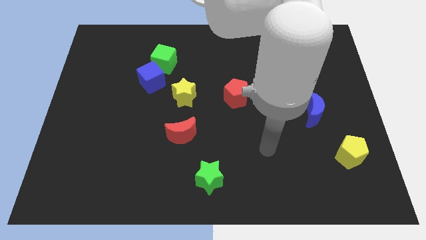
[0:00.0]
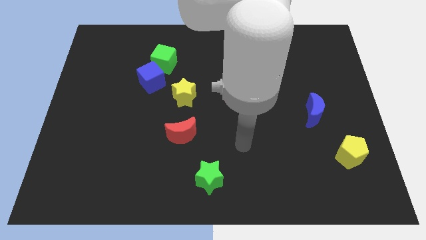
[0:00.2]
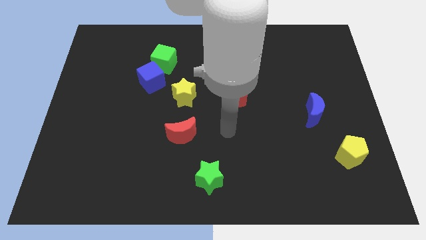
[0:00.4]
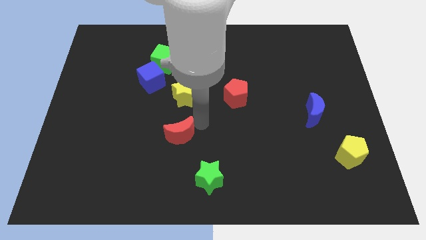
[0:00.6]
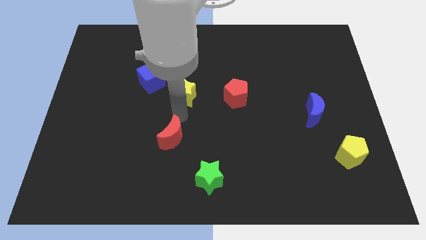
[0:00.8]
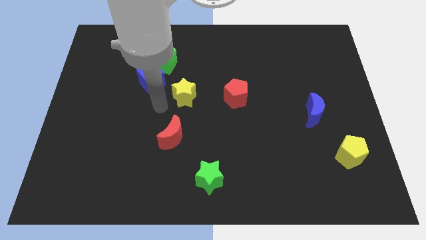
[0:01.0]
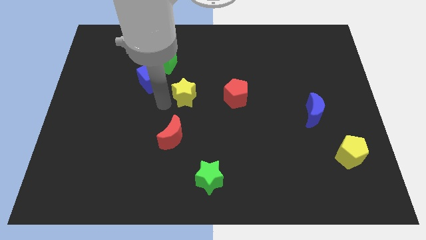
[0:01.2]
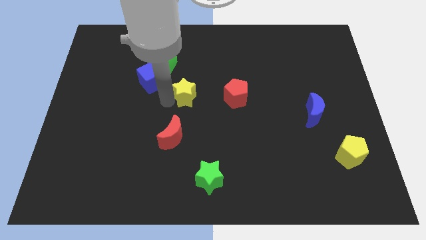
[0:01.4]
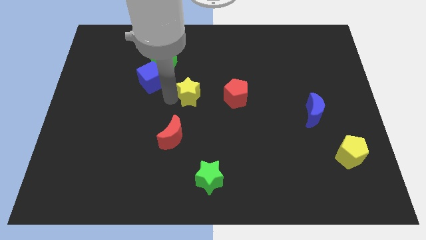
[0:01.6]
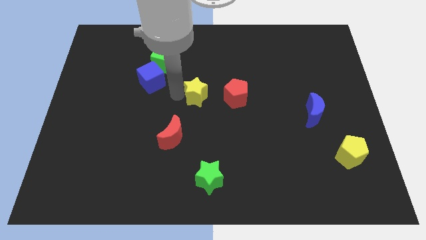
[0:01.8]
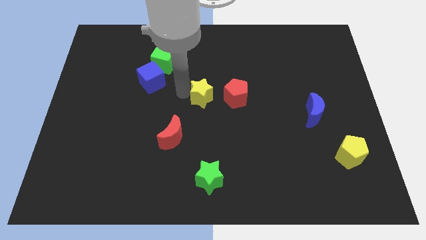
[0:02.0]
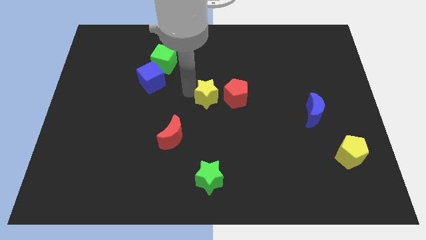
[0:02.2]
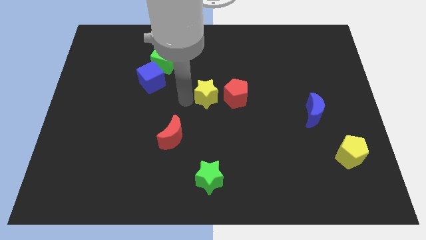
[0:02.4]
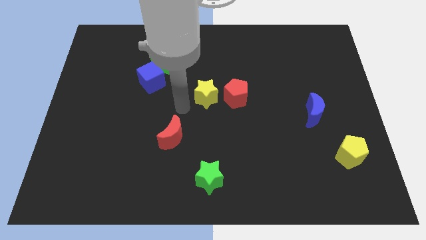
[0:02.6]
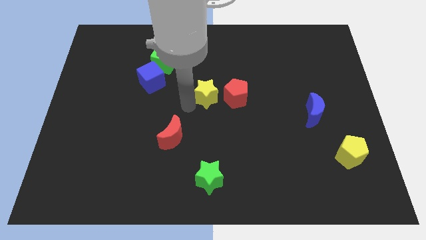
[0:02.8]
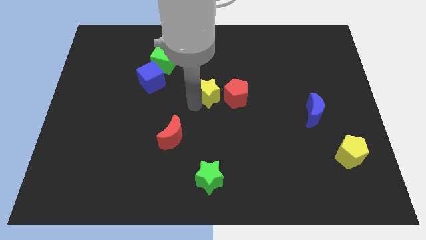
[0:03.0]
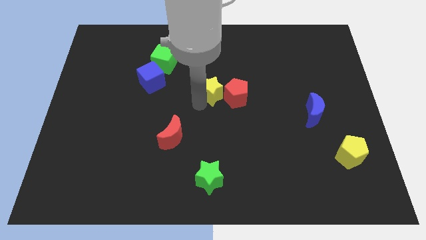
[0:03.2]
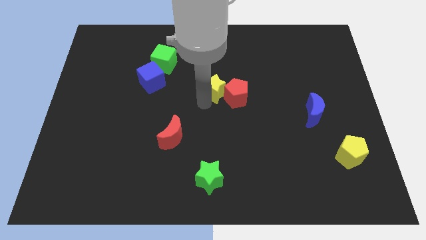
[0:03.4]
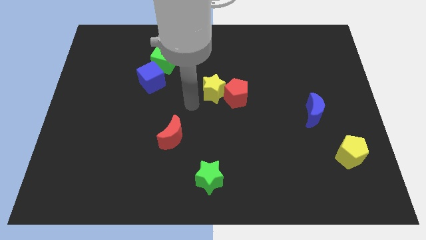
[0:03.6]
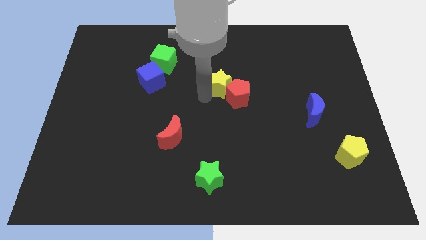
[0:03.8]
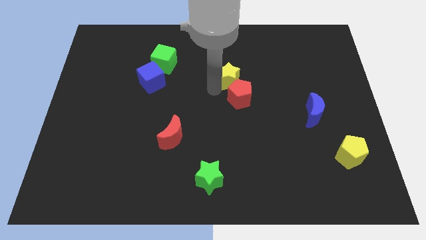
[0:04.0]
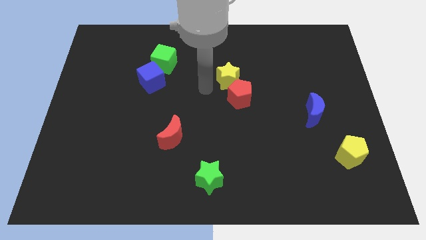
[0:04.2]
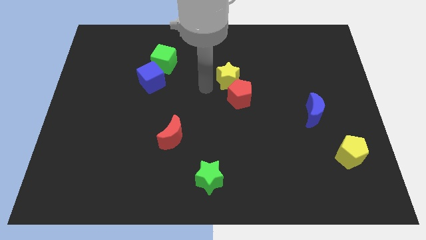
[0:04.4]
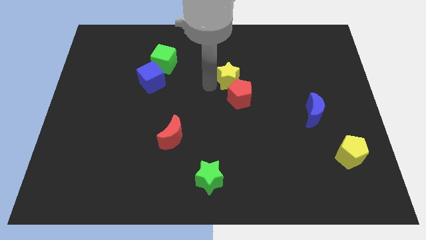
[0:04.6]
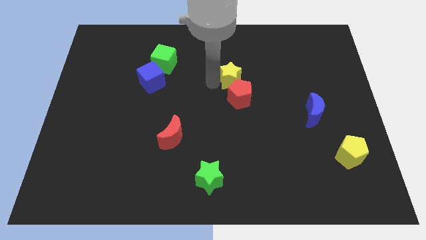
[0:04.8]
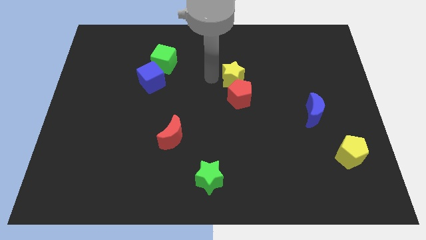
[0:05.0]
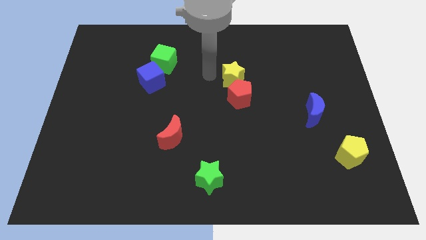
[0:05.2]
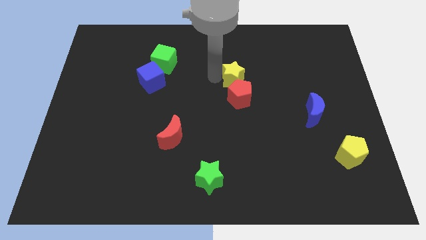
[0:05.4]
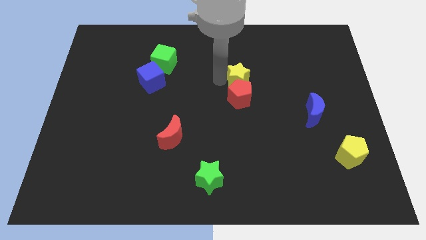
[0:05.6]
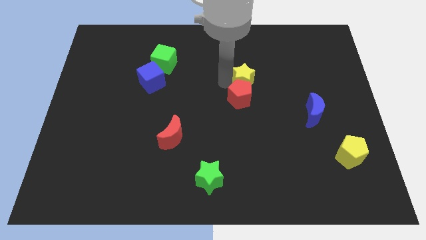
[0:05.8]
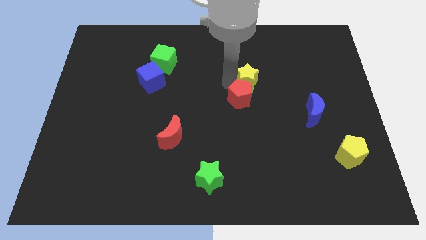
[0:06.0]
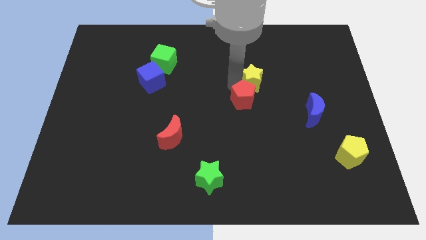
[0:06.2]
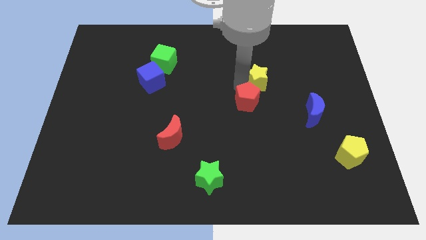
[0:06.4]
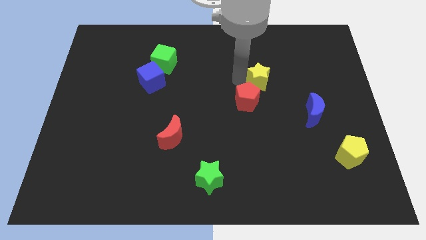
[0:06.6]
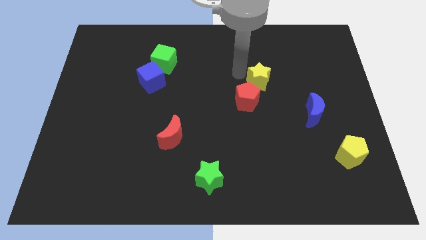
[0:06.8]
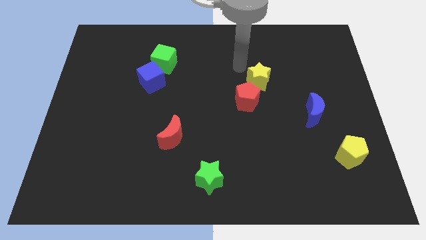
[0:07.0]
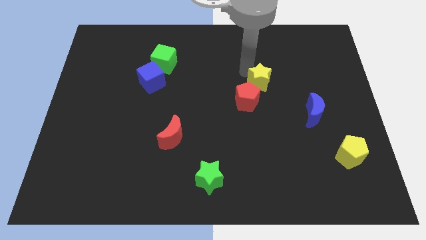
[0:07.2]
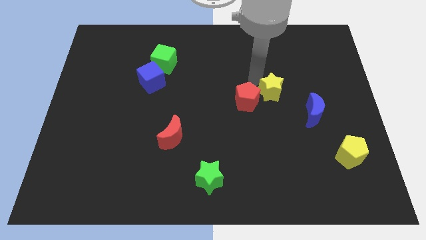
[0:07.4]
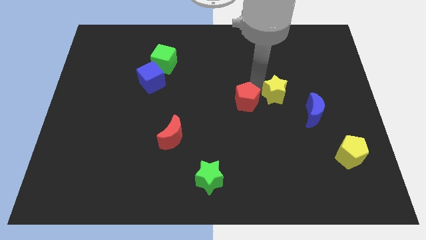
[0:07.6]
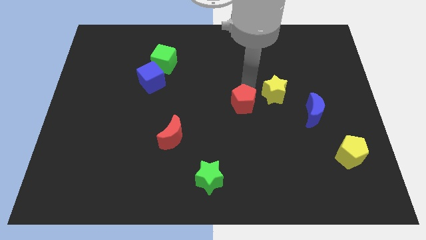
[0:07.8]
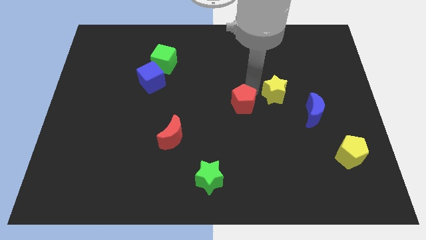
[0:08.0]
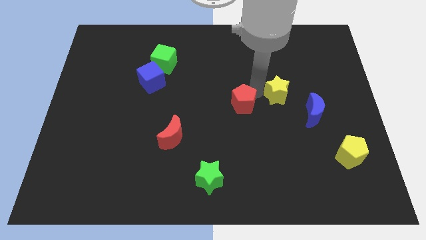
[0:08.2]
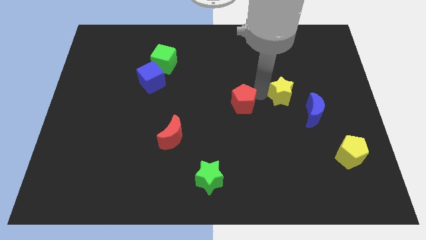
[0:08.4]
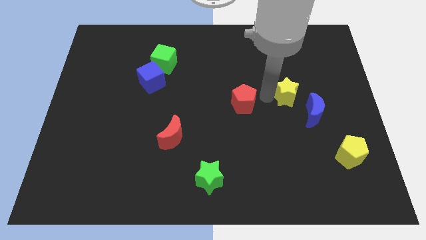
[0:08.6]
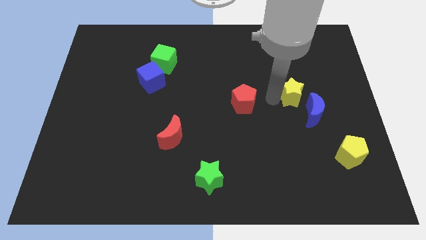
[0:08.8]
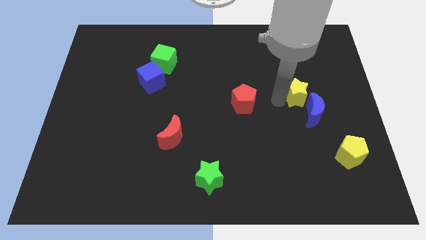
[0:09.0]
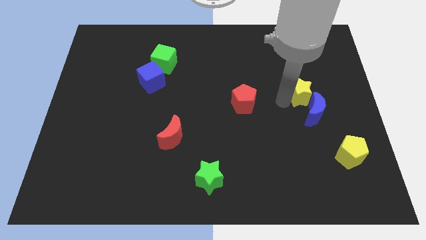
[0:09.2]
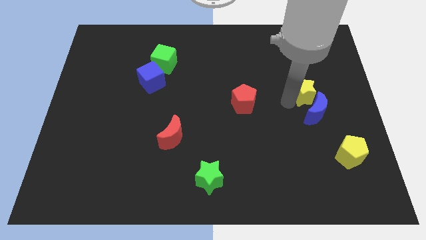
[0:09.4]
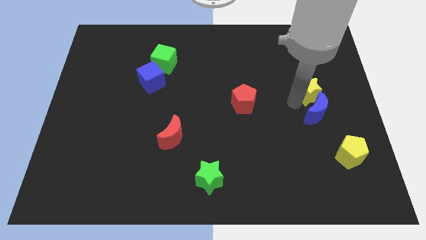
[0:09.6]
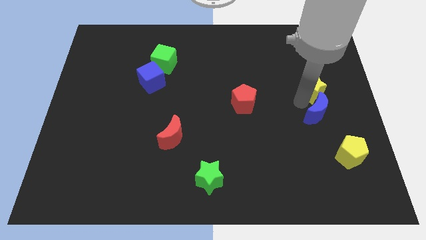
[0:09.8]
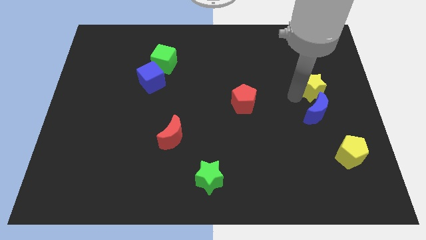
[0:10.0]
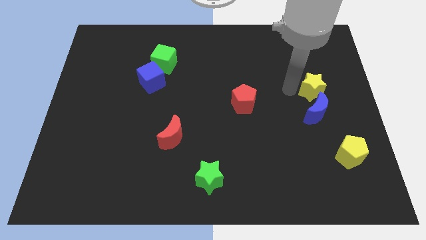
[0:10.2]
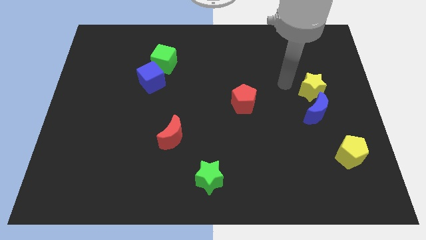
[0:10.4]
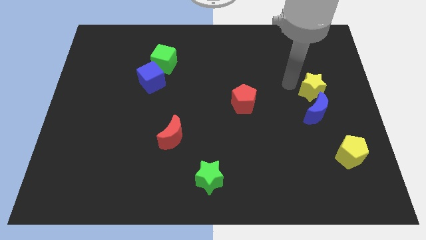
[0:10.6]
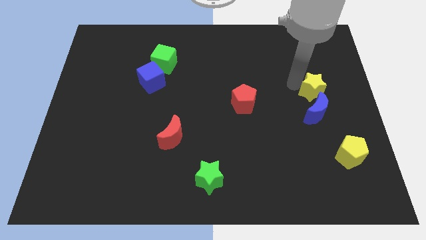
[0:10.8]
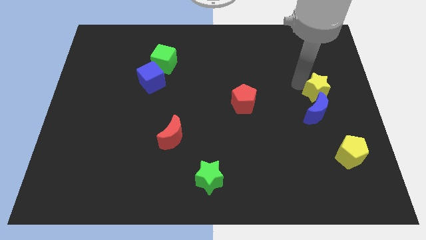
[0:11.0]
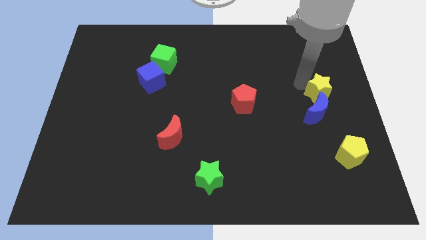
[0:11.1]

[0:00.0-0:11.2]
slide the yellow star to the right side of the board

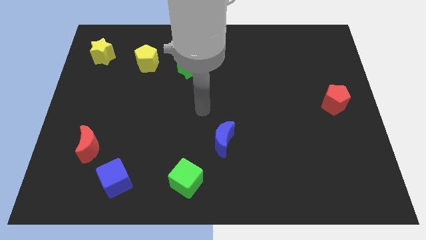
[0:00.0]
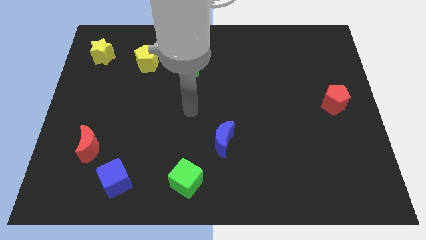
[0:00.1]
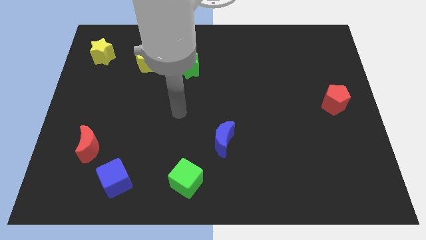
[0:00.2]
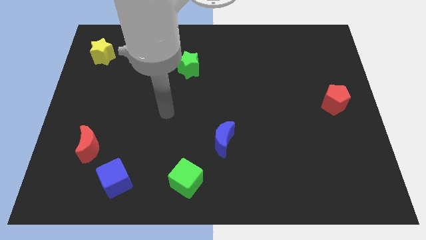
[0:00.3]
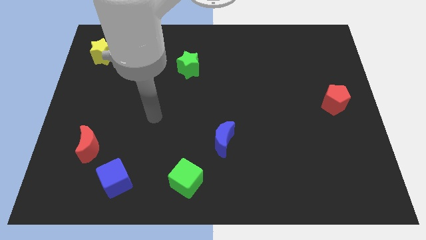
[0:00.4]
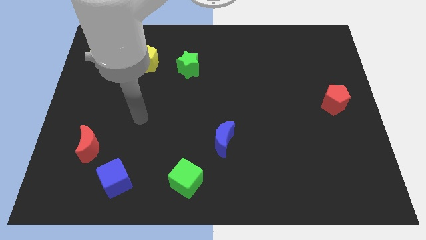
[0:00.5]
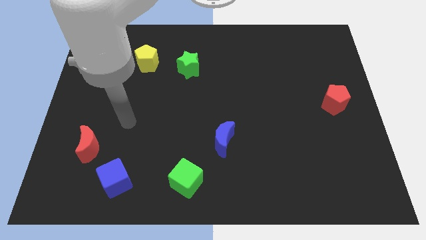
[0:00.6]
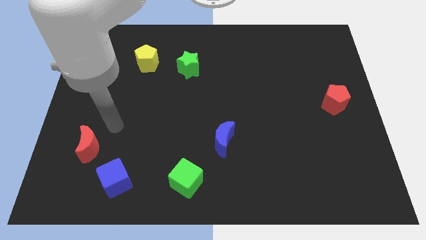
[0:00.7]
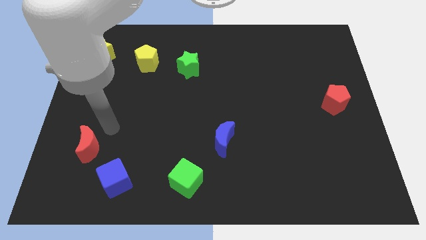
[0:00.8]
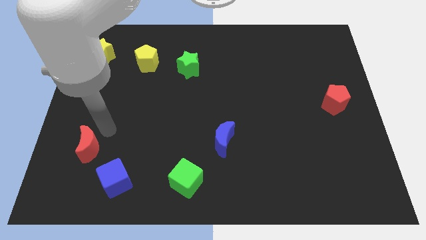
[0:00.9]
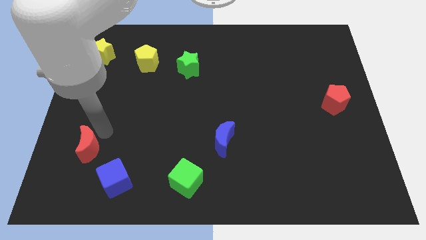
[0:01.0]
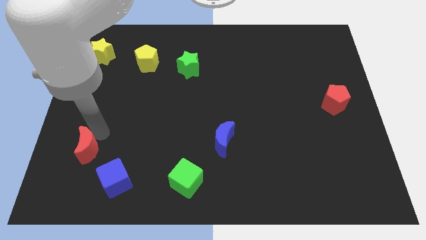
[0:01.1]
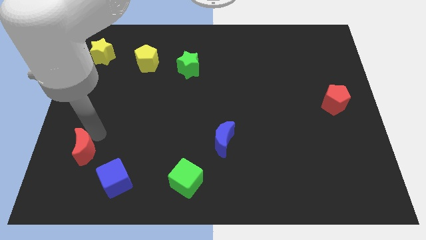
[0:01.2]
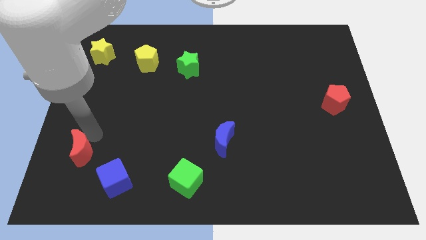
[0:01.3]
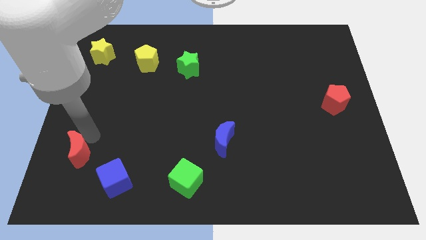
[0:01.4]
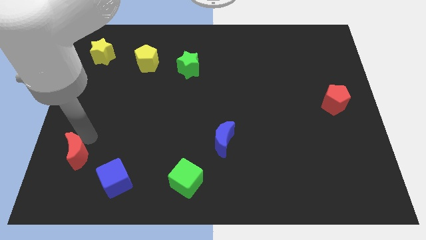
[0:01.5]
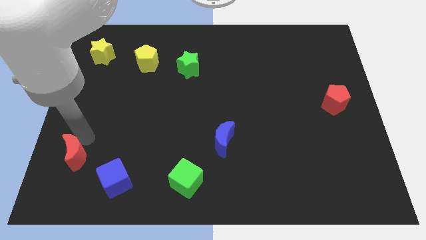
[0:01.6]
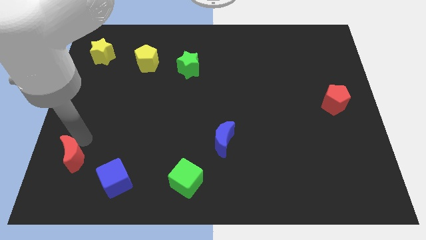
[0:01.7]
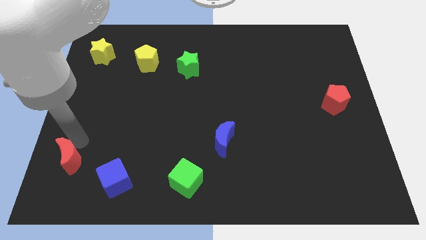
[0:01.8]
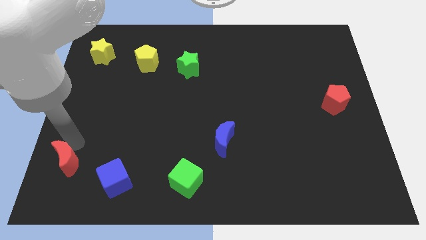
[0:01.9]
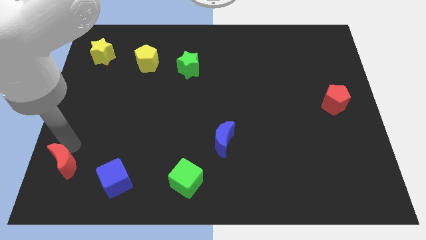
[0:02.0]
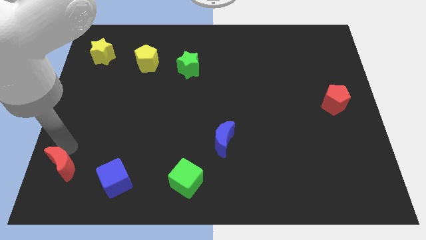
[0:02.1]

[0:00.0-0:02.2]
move the red moon to the bottom left corner
